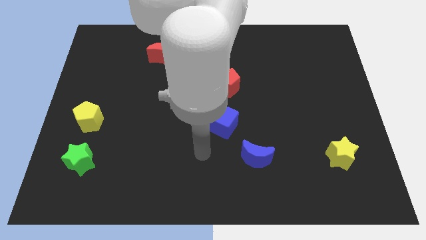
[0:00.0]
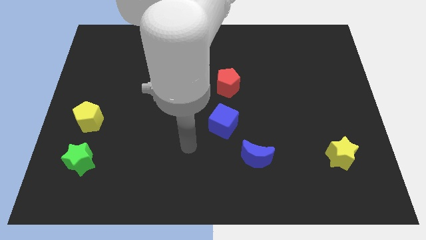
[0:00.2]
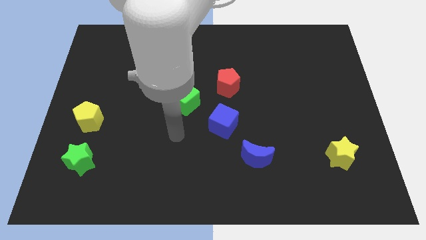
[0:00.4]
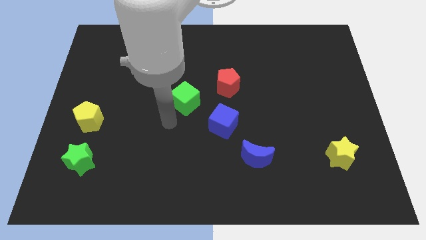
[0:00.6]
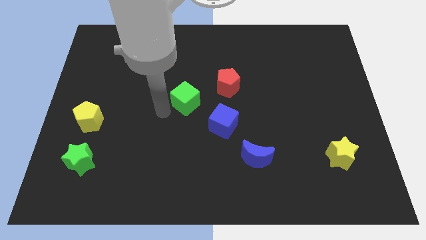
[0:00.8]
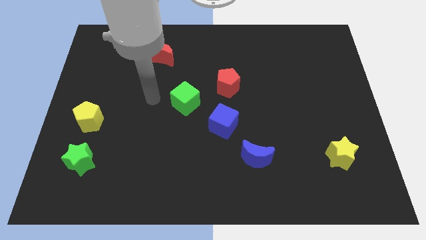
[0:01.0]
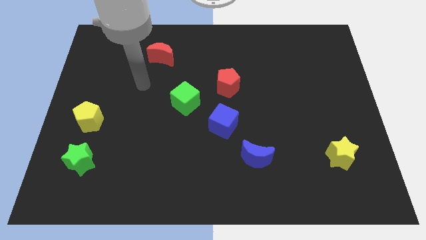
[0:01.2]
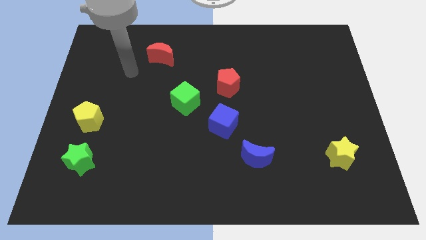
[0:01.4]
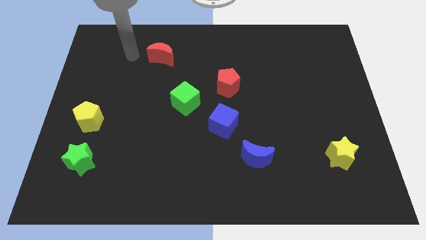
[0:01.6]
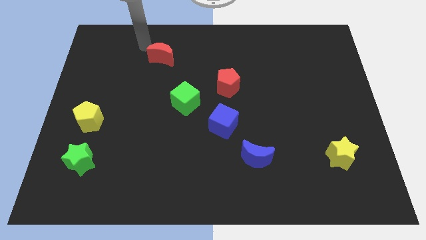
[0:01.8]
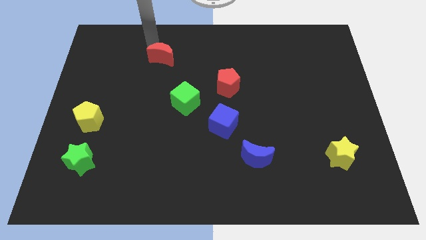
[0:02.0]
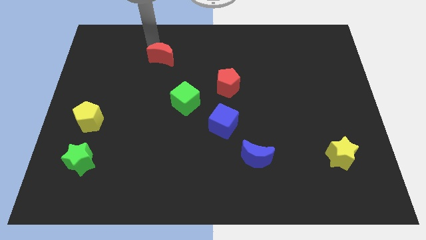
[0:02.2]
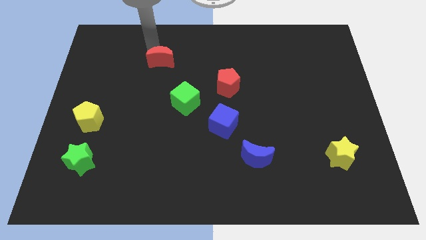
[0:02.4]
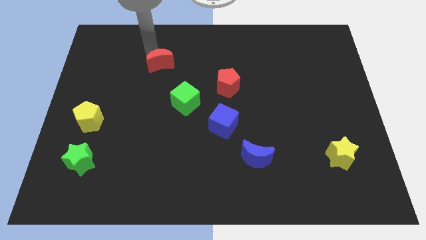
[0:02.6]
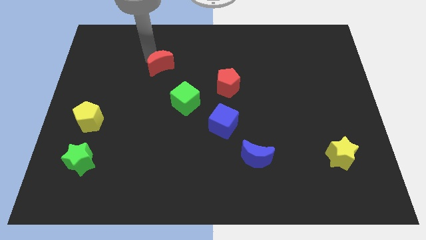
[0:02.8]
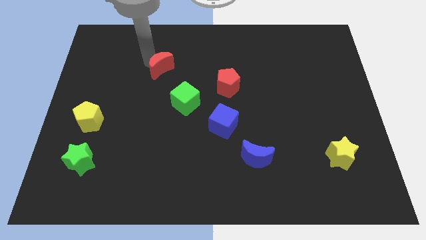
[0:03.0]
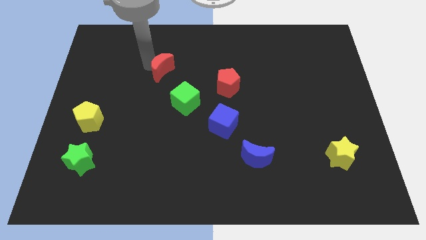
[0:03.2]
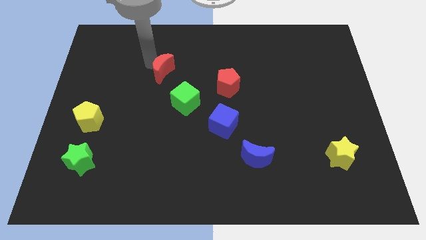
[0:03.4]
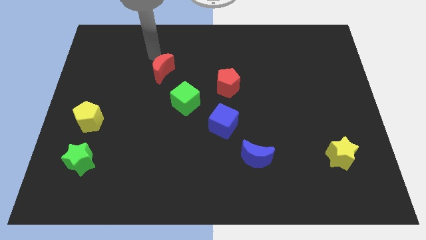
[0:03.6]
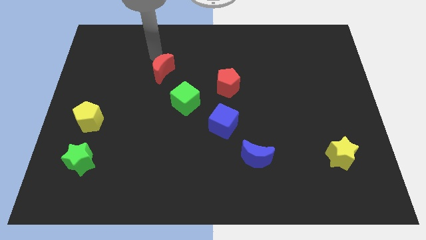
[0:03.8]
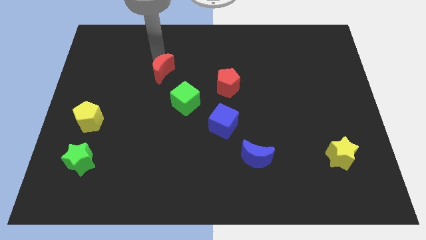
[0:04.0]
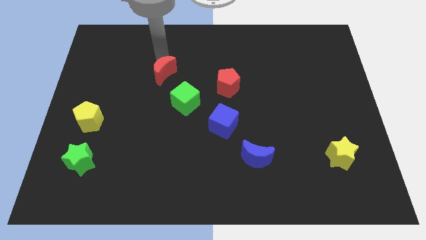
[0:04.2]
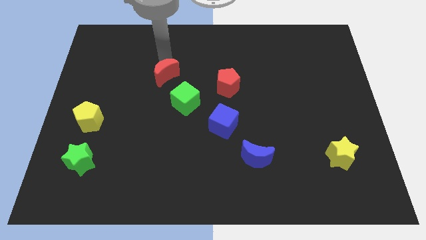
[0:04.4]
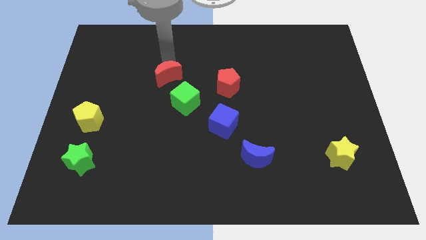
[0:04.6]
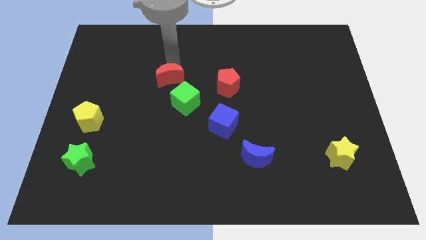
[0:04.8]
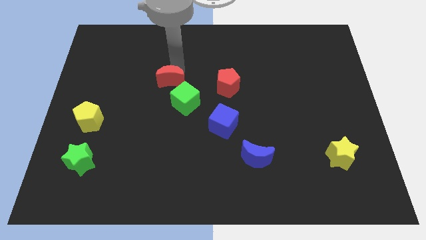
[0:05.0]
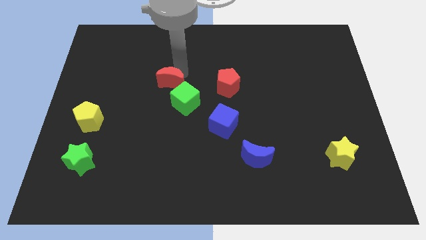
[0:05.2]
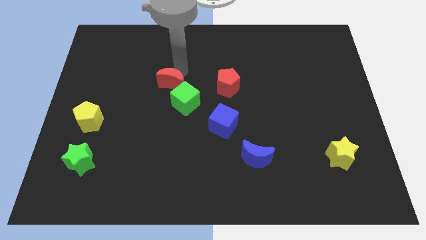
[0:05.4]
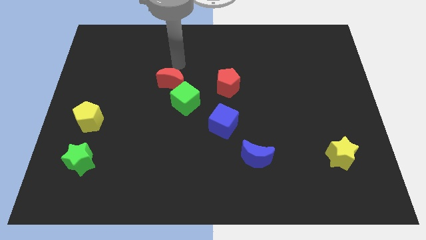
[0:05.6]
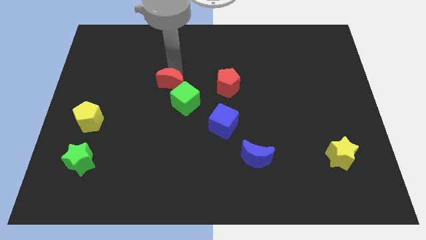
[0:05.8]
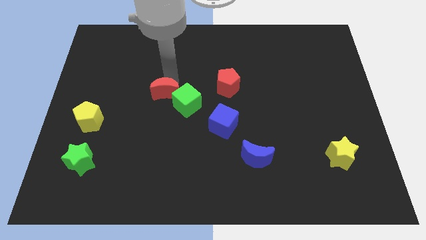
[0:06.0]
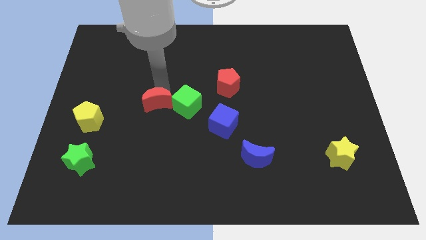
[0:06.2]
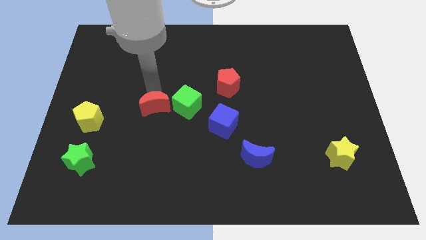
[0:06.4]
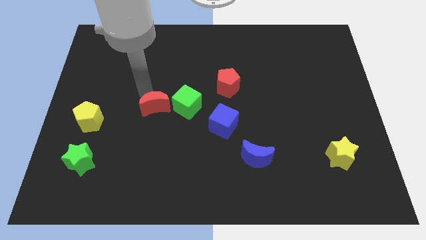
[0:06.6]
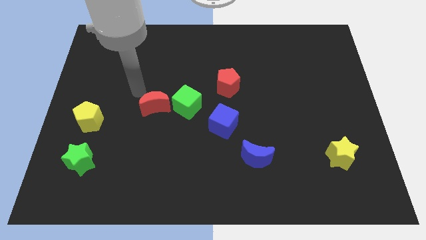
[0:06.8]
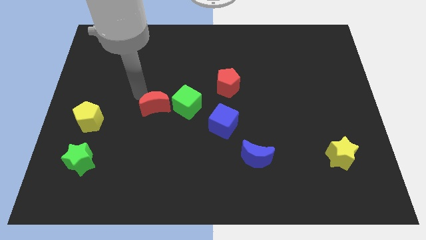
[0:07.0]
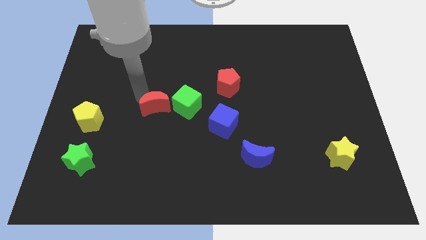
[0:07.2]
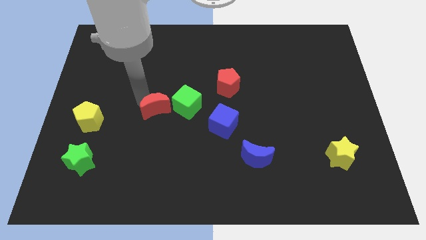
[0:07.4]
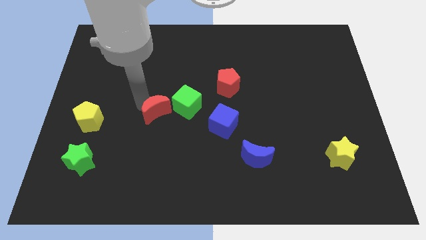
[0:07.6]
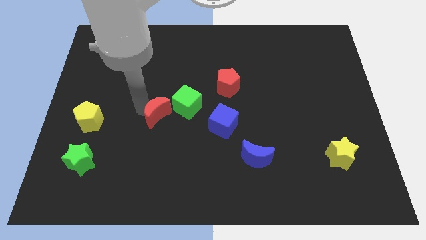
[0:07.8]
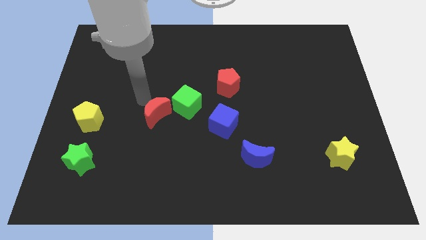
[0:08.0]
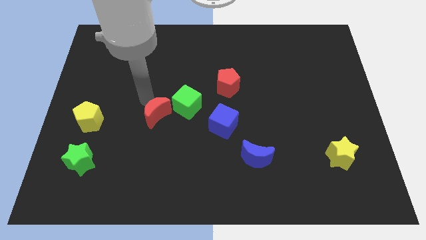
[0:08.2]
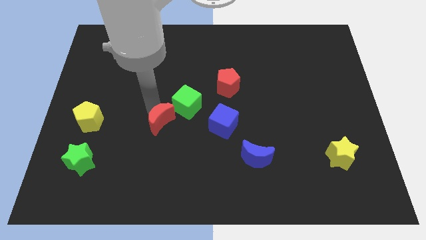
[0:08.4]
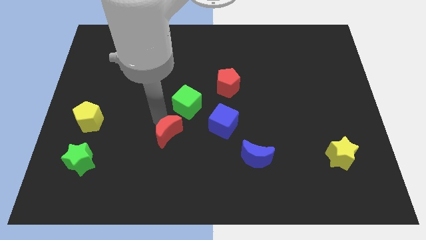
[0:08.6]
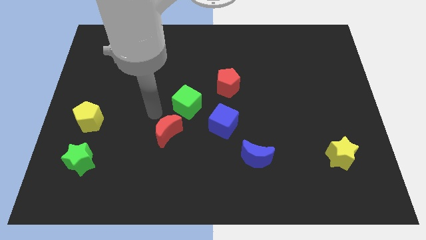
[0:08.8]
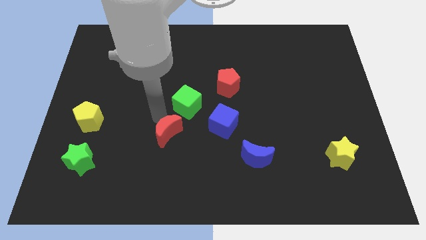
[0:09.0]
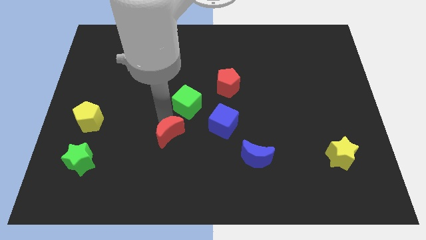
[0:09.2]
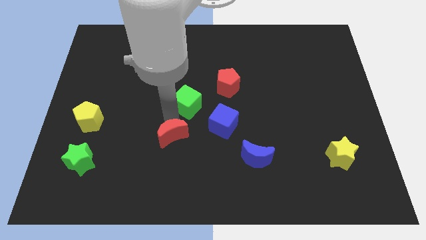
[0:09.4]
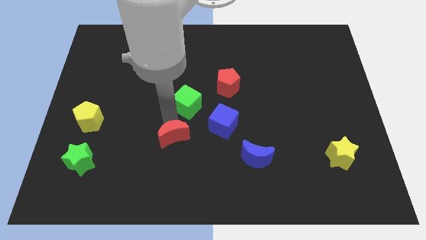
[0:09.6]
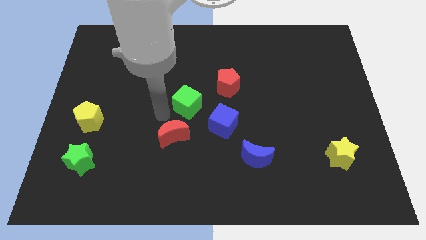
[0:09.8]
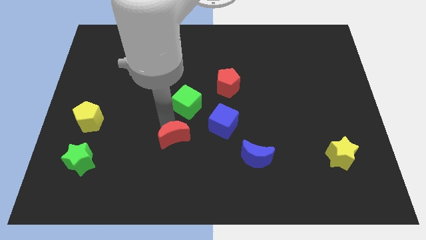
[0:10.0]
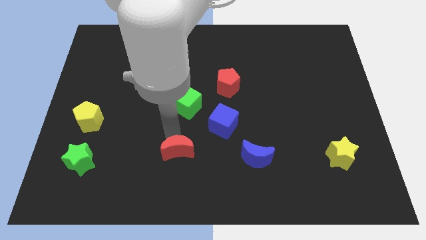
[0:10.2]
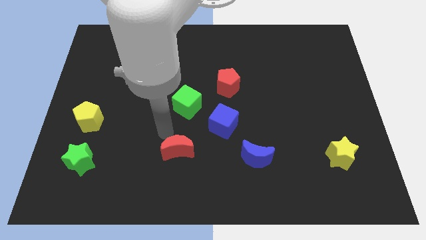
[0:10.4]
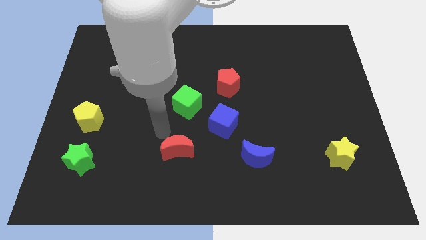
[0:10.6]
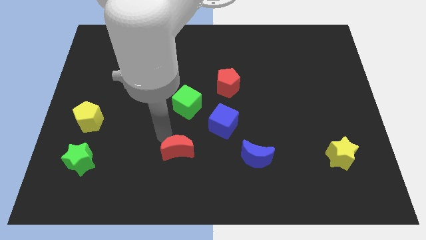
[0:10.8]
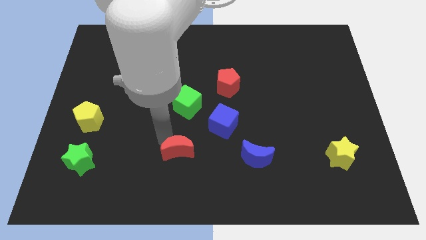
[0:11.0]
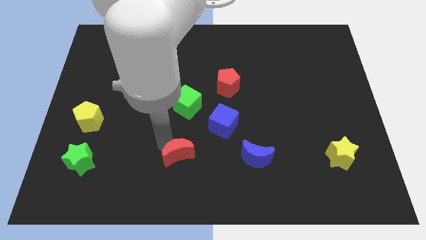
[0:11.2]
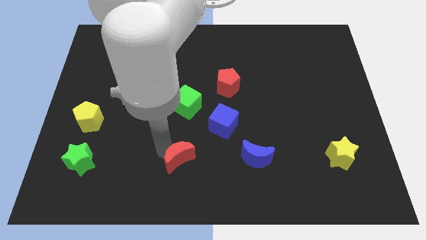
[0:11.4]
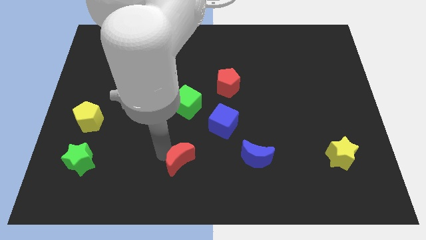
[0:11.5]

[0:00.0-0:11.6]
push the red moon to the bottom side

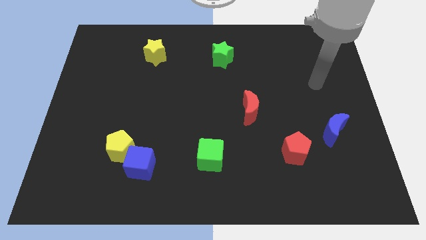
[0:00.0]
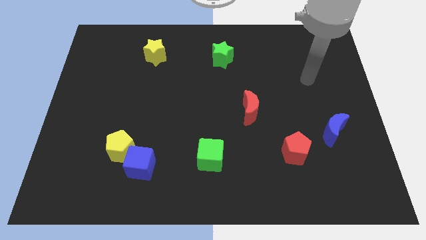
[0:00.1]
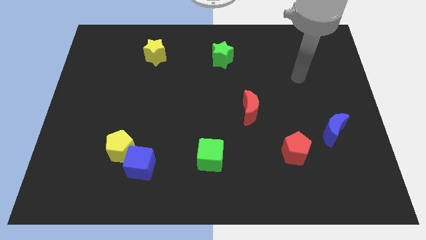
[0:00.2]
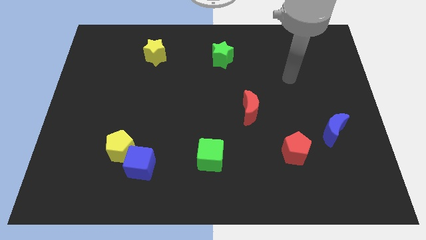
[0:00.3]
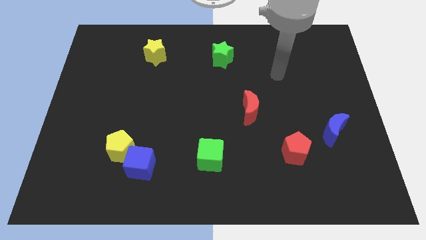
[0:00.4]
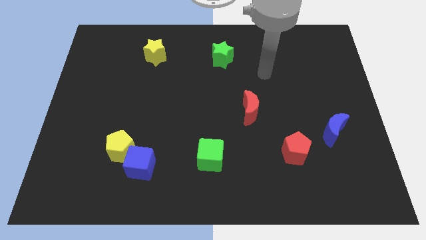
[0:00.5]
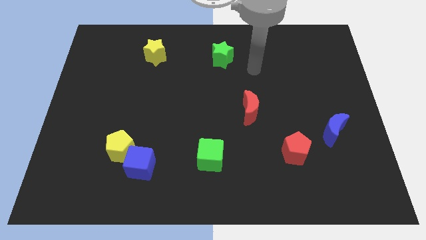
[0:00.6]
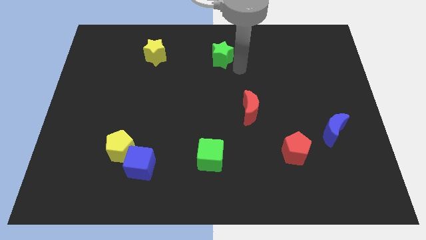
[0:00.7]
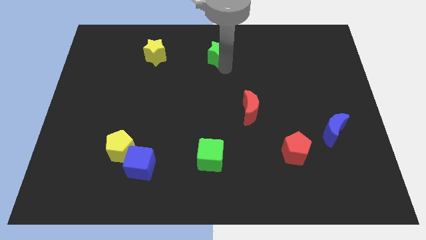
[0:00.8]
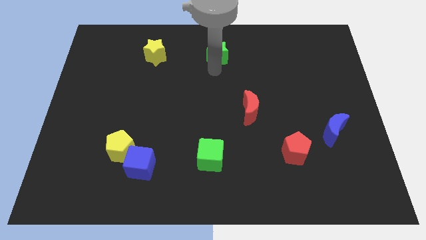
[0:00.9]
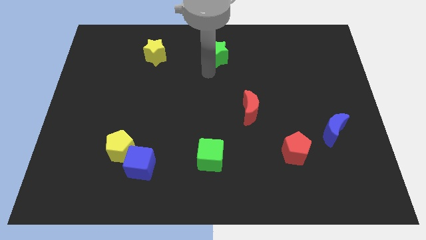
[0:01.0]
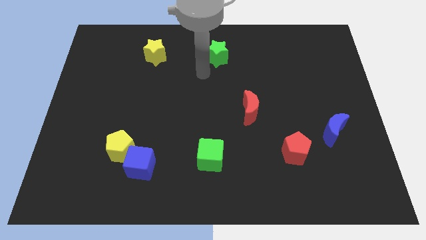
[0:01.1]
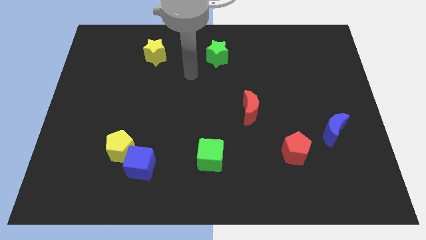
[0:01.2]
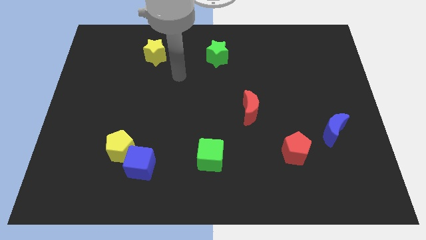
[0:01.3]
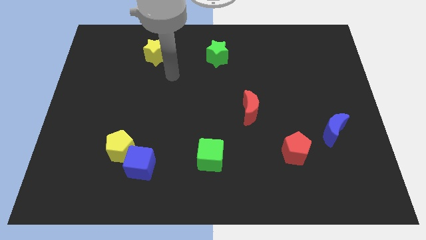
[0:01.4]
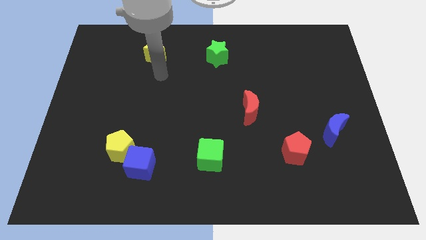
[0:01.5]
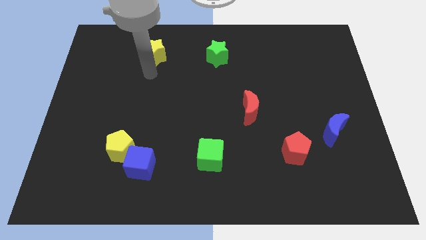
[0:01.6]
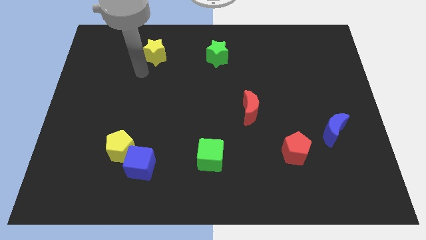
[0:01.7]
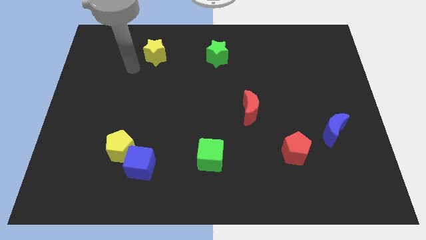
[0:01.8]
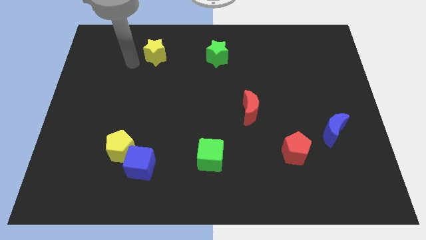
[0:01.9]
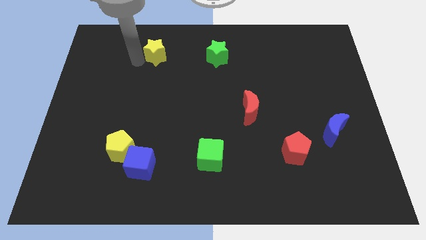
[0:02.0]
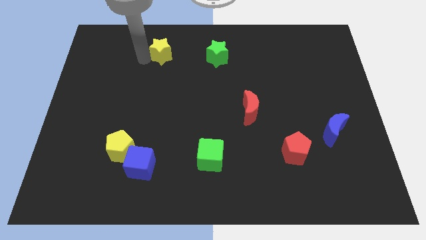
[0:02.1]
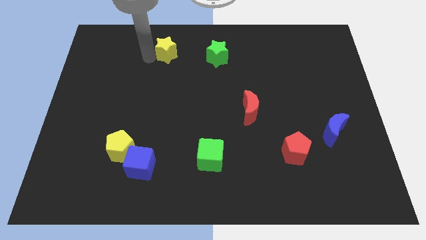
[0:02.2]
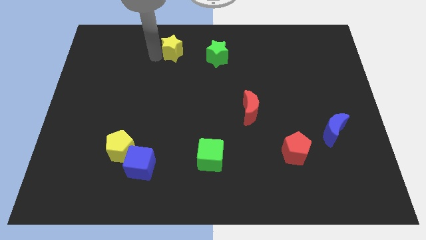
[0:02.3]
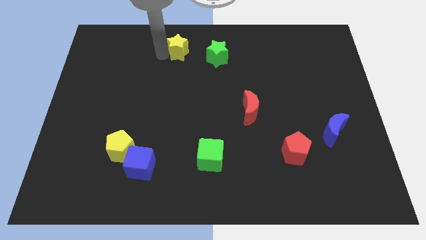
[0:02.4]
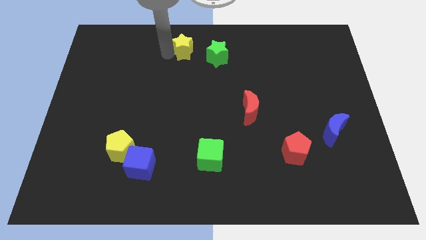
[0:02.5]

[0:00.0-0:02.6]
push the yellow star to the top
